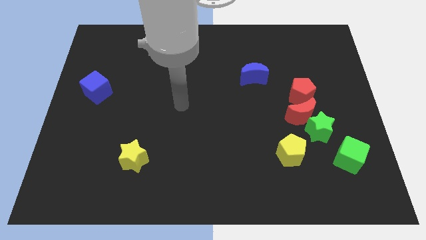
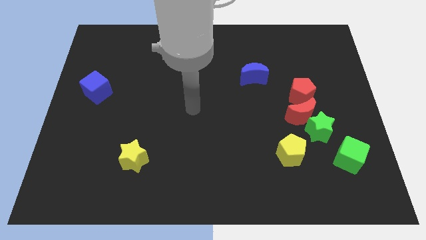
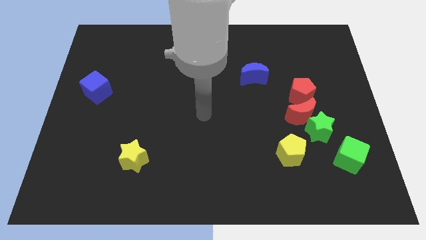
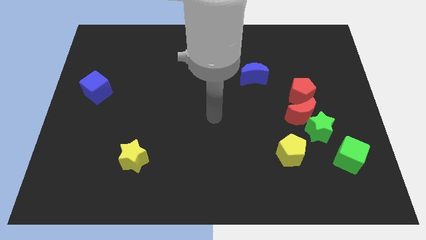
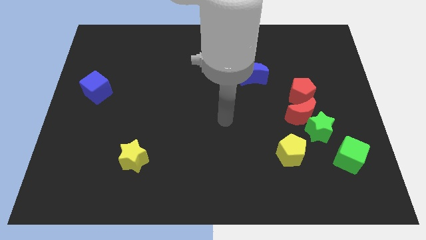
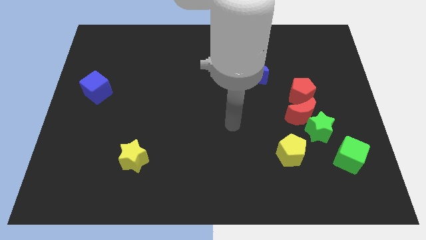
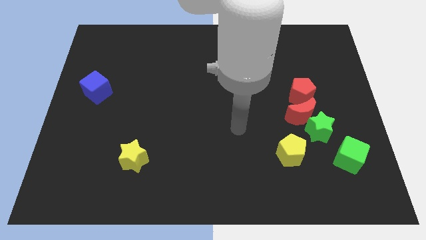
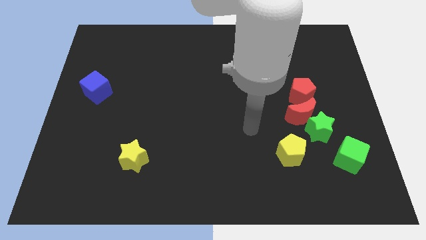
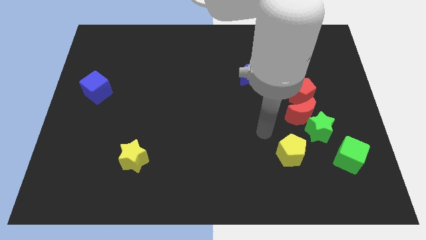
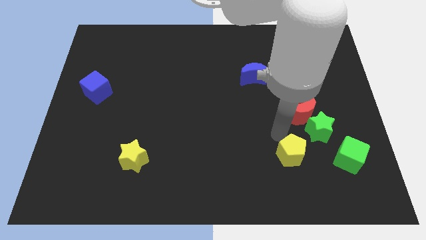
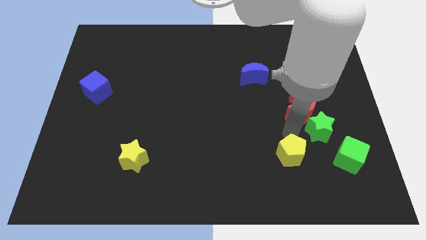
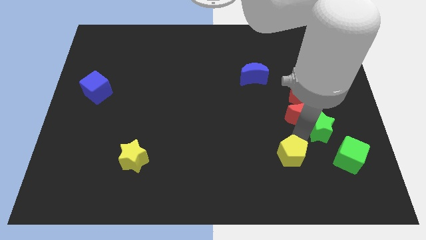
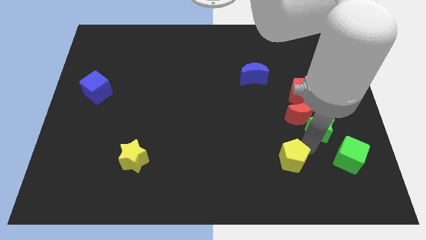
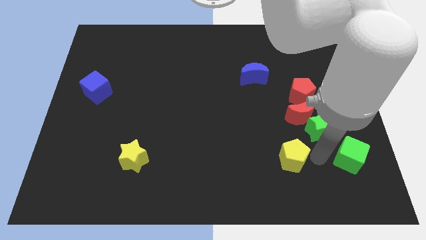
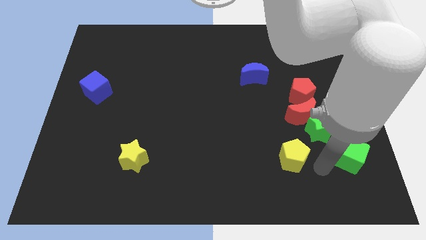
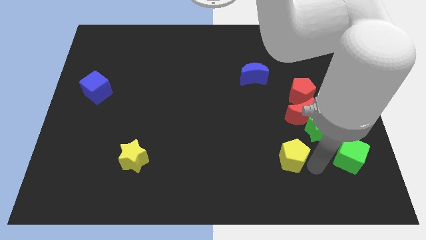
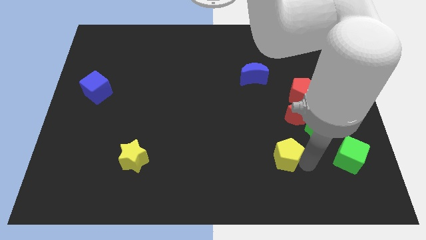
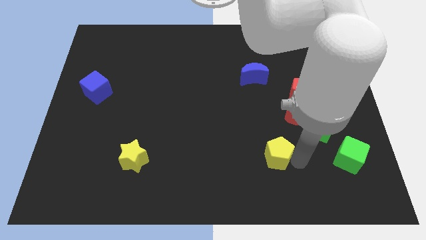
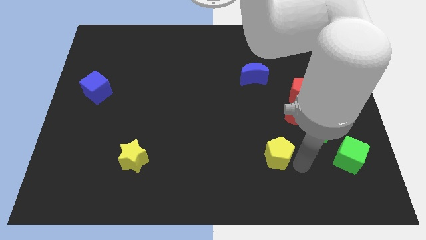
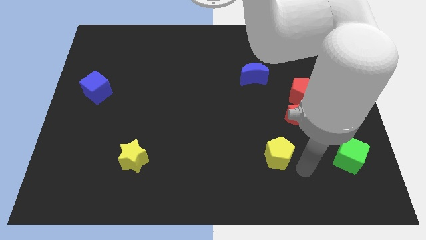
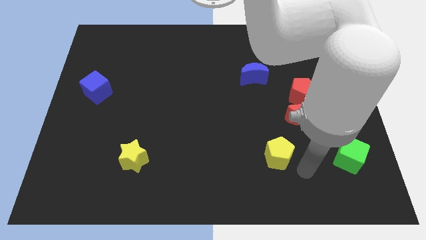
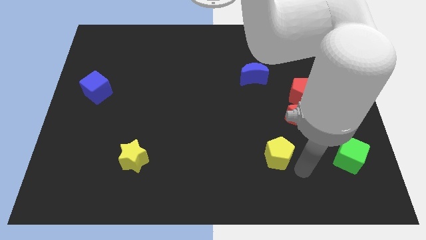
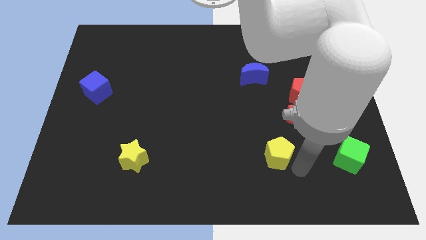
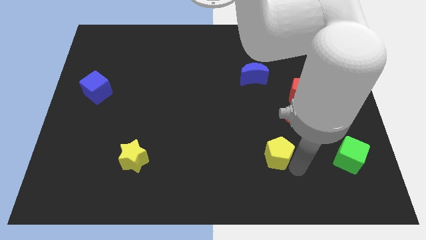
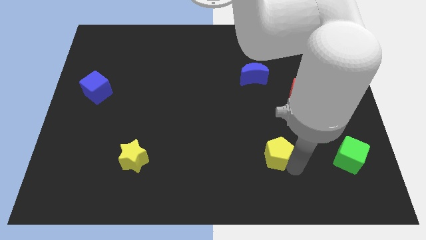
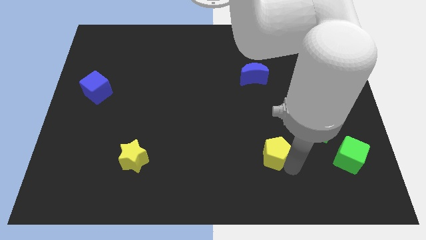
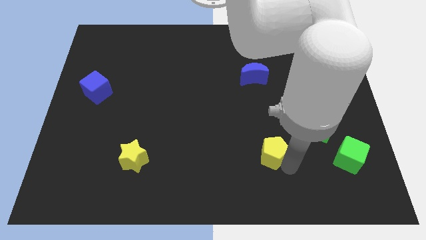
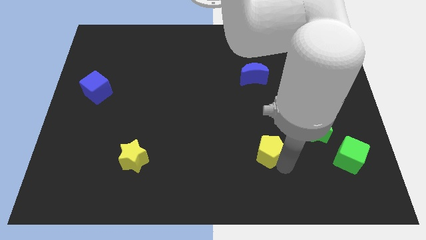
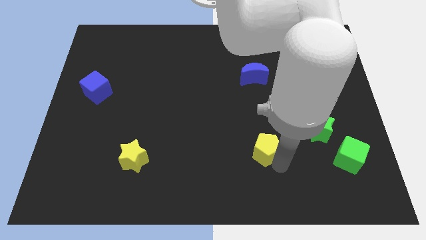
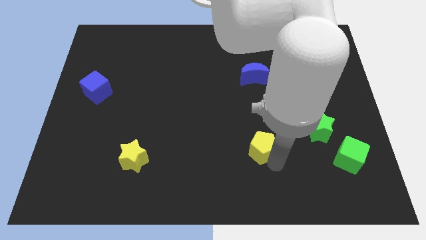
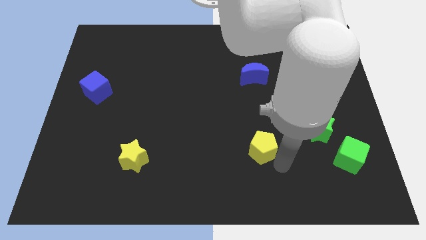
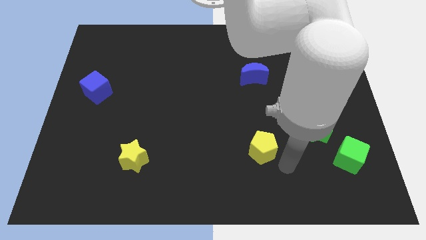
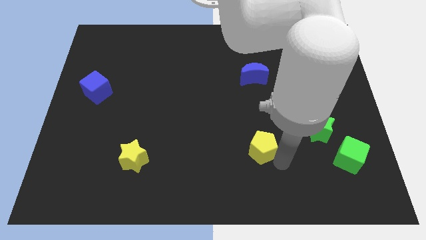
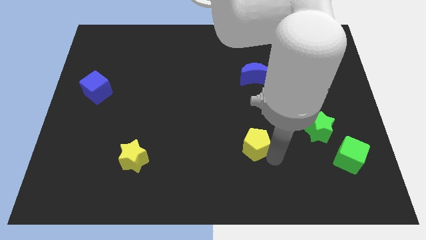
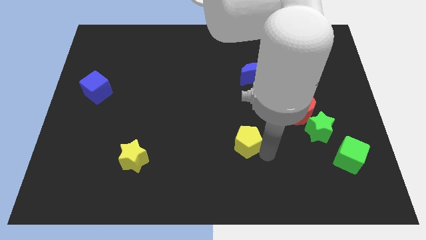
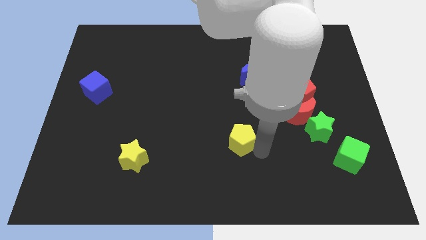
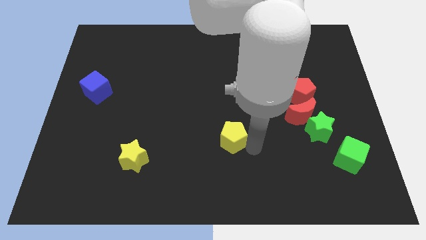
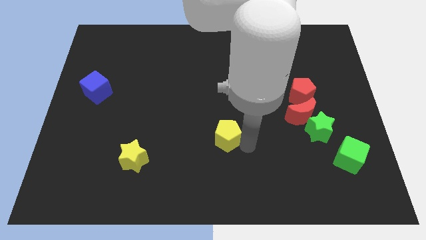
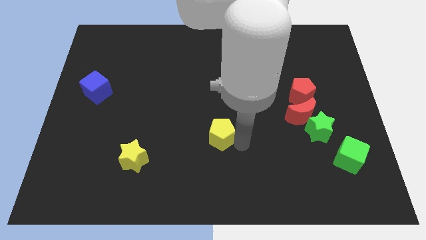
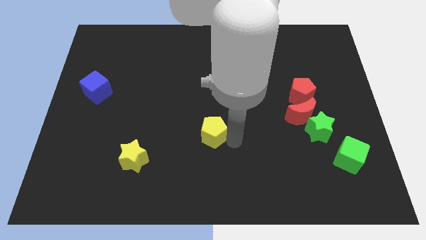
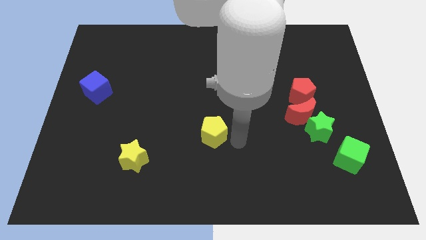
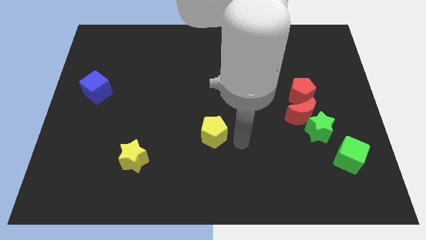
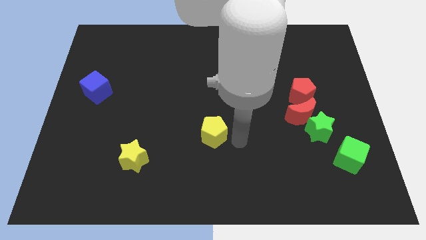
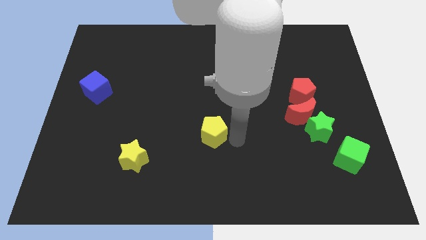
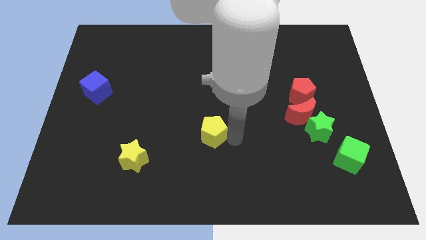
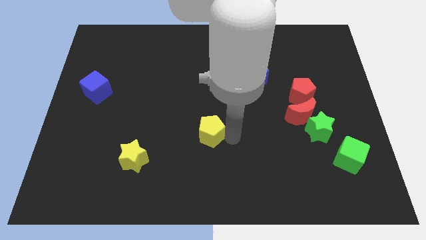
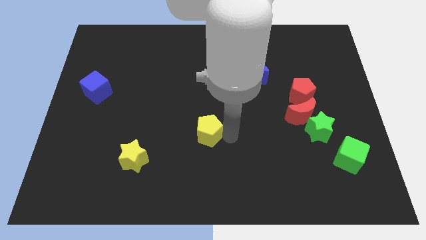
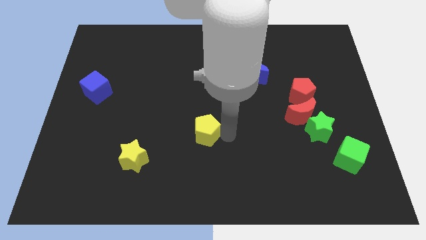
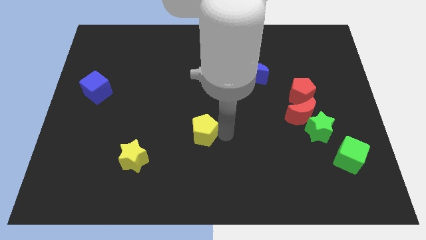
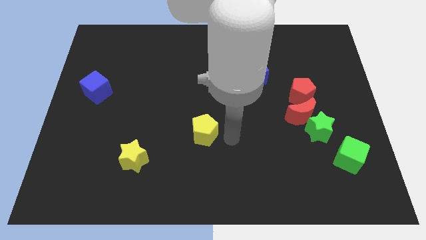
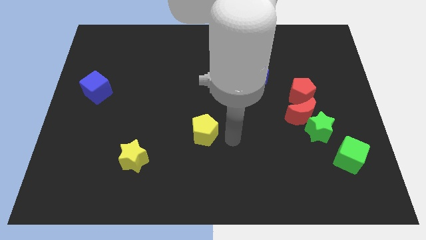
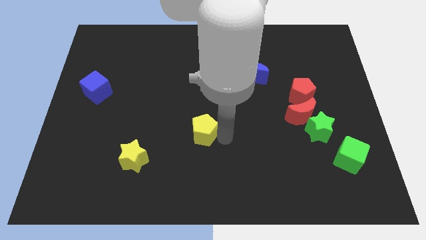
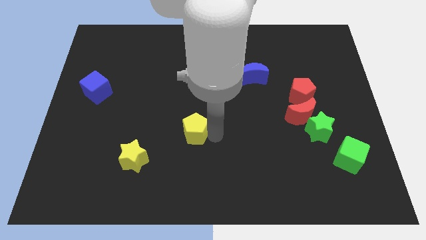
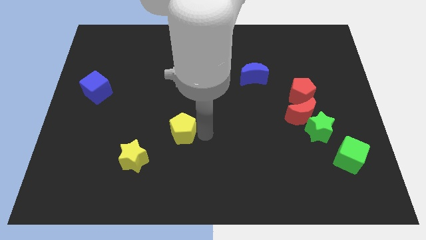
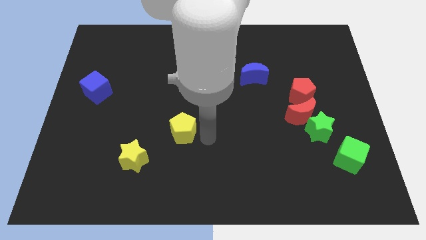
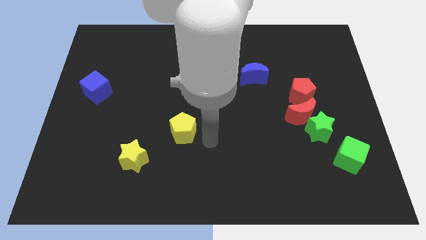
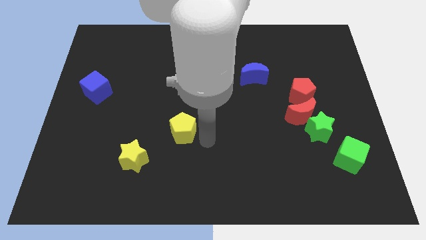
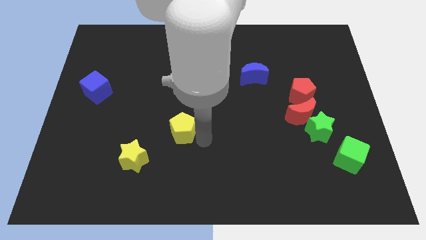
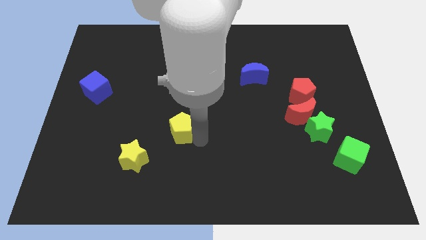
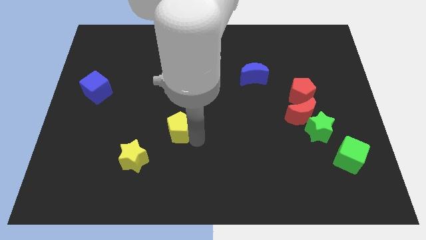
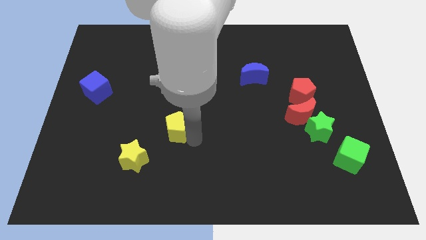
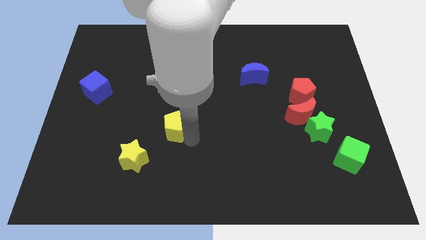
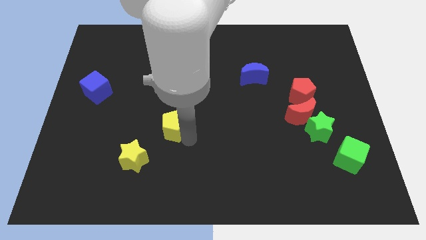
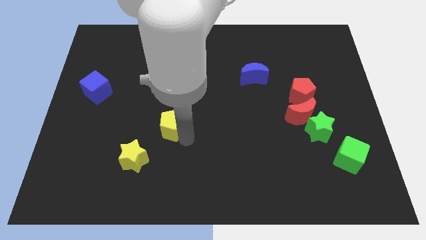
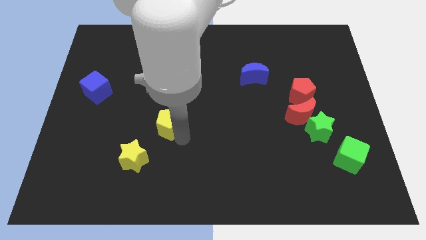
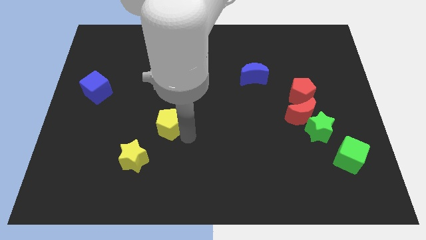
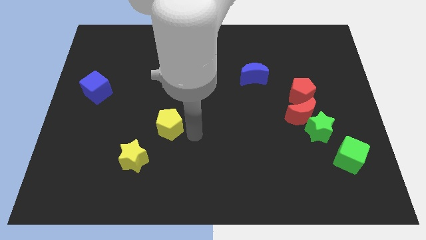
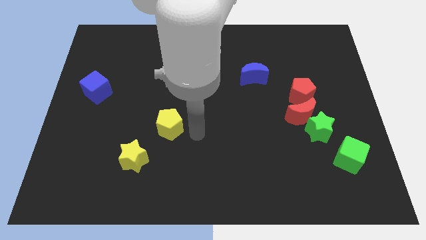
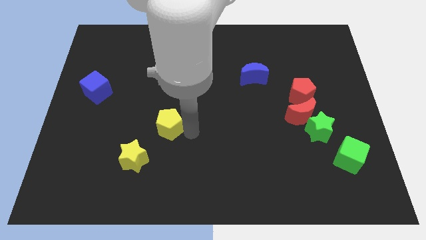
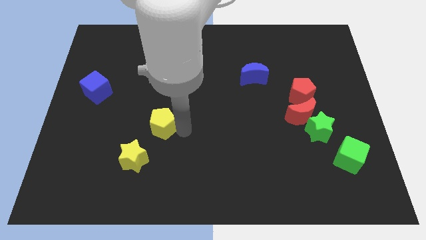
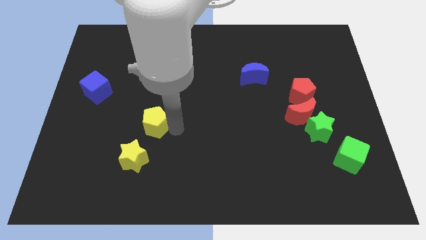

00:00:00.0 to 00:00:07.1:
put the yellow pentagon to the top side of the yellow star

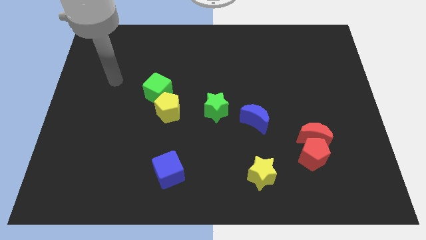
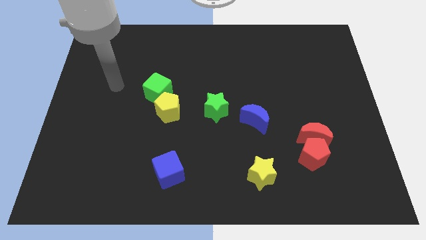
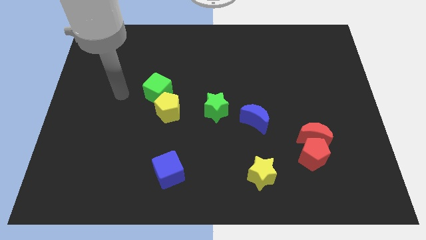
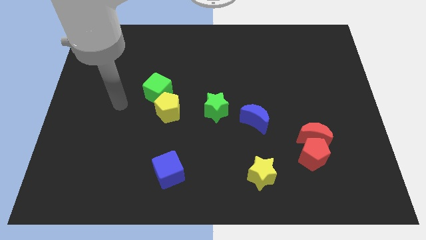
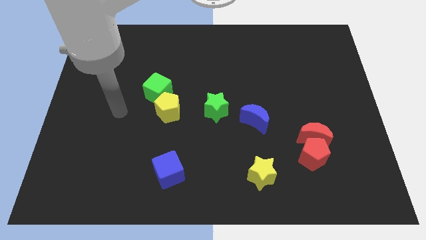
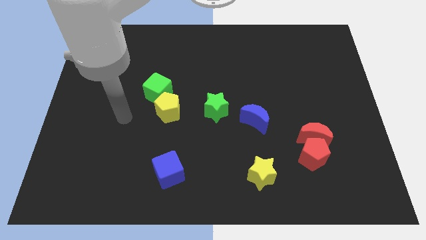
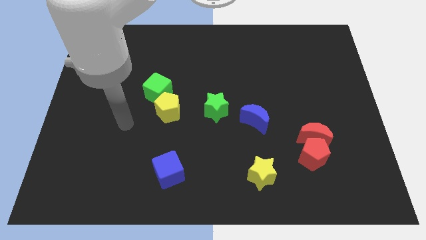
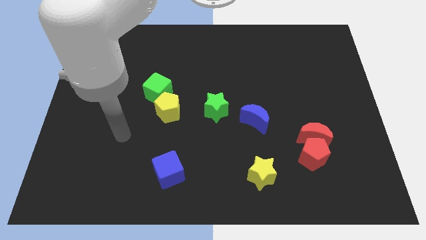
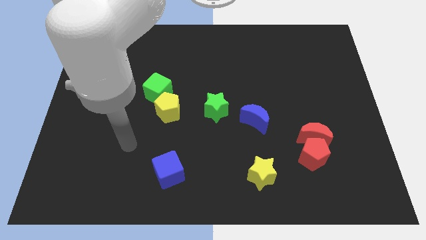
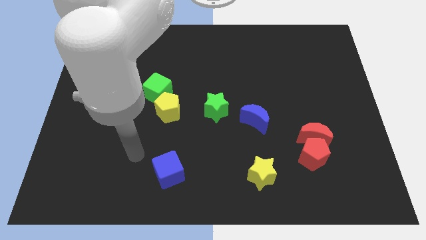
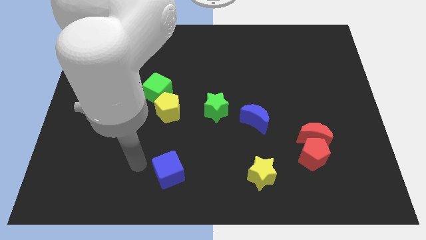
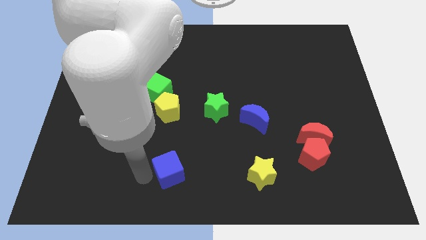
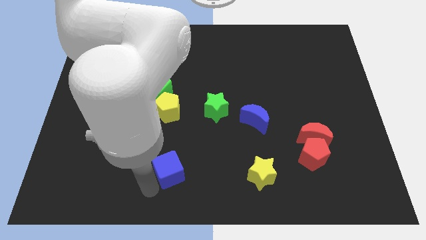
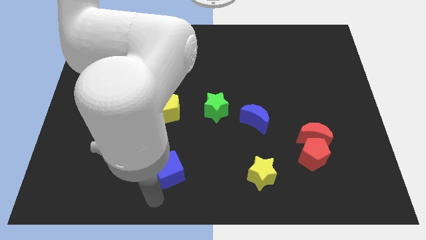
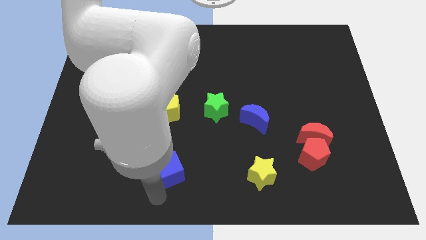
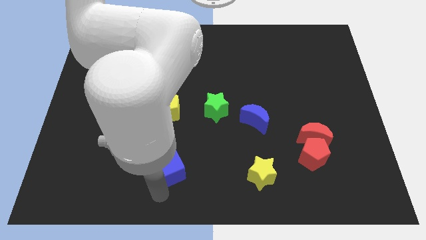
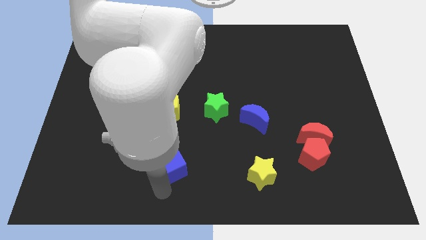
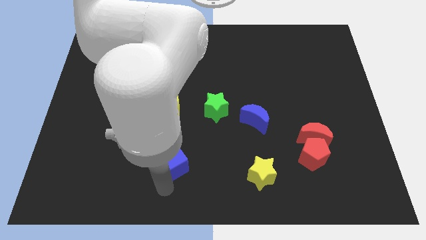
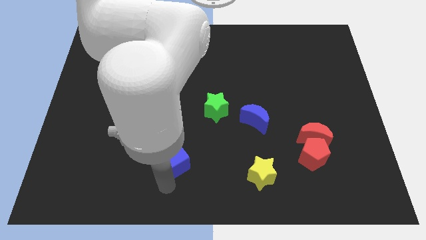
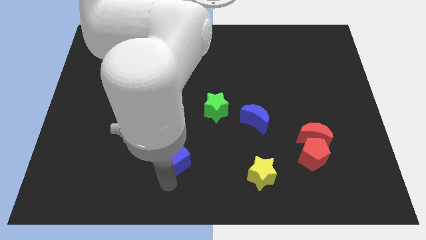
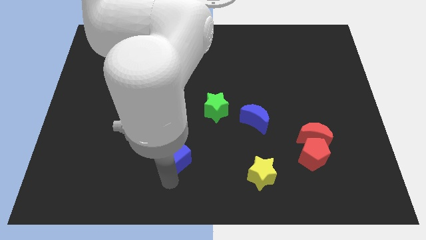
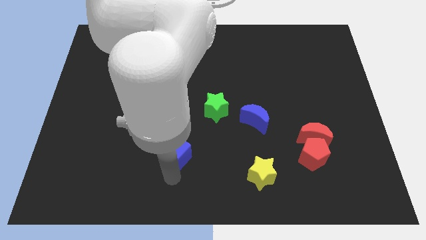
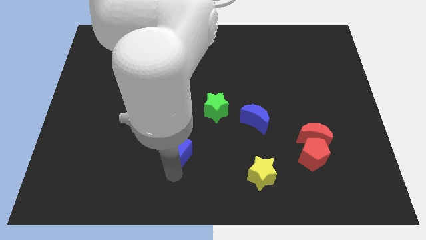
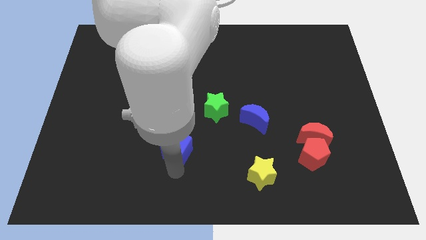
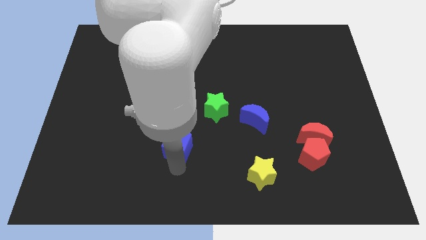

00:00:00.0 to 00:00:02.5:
push the blue cube to the bottom left of the green star
